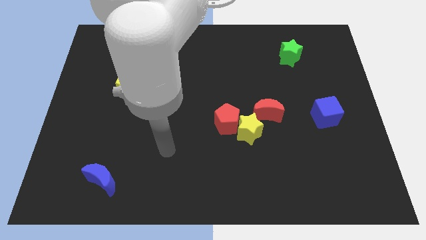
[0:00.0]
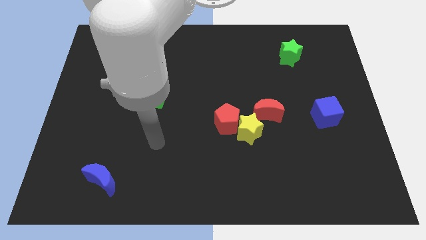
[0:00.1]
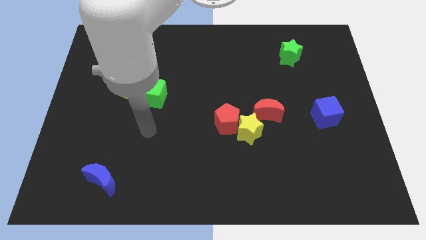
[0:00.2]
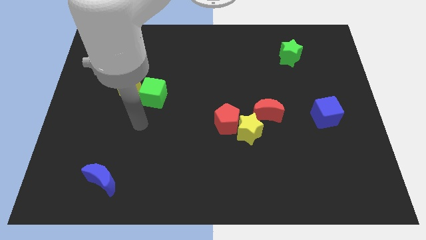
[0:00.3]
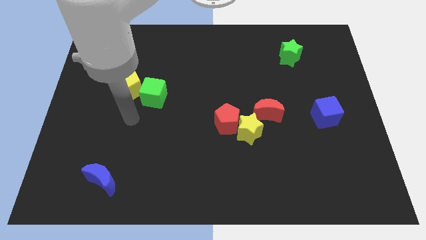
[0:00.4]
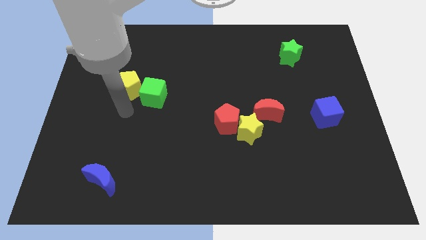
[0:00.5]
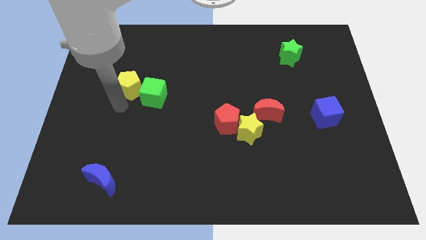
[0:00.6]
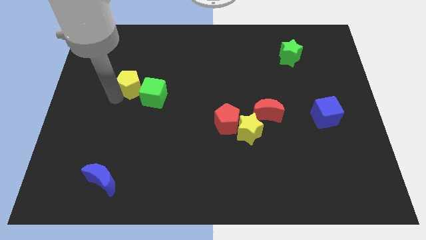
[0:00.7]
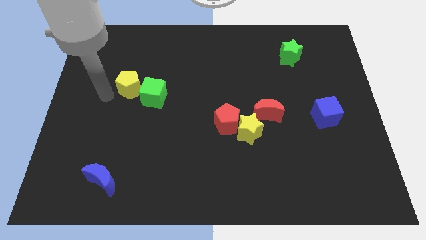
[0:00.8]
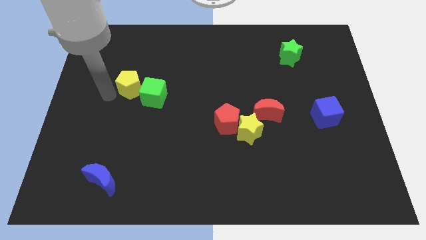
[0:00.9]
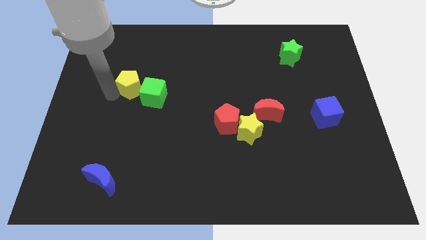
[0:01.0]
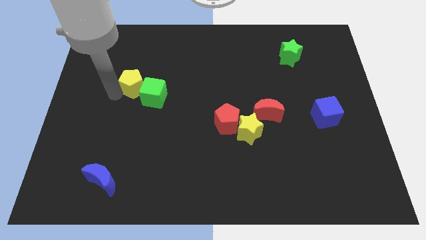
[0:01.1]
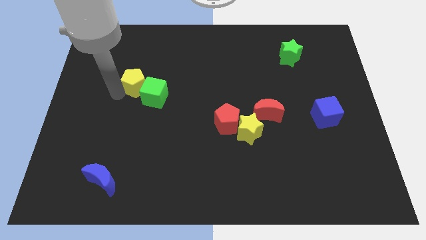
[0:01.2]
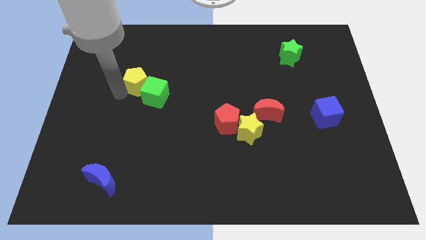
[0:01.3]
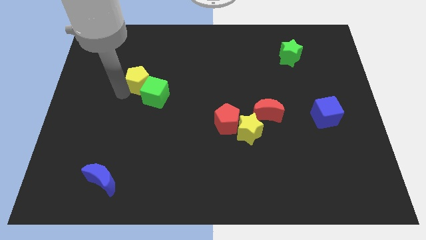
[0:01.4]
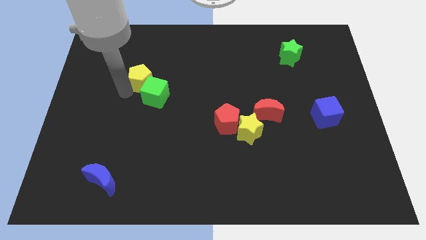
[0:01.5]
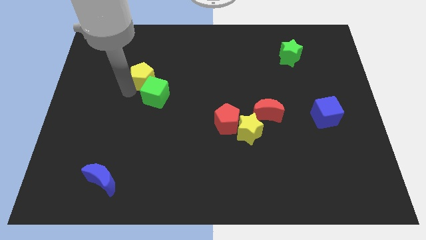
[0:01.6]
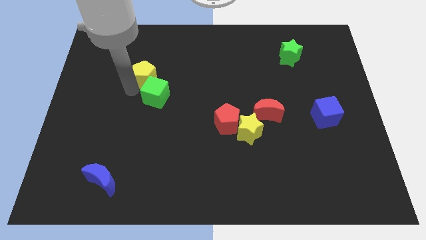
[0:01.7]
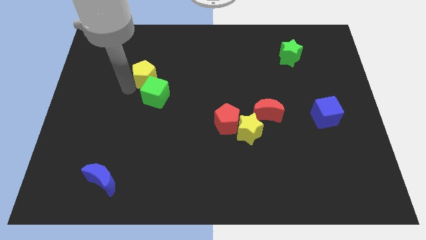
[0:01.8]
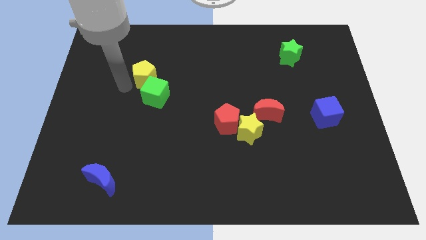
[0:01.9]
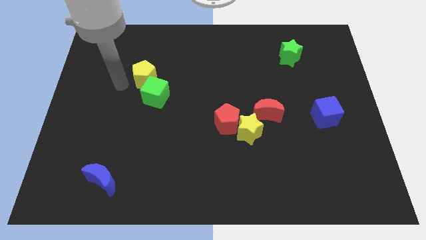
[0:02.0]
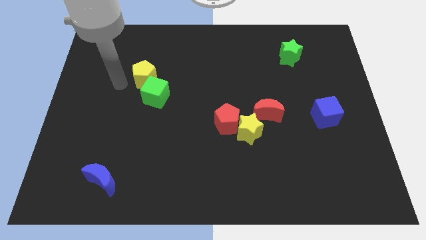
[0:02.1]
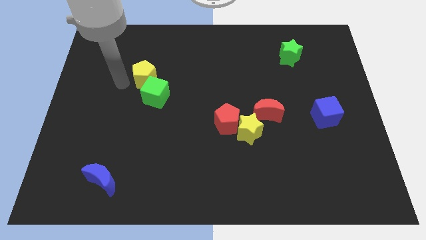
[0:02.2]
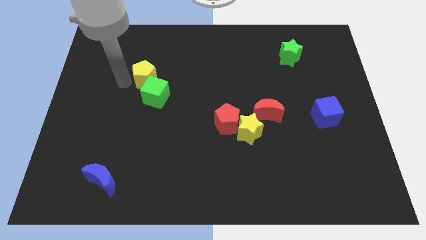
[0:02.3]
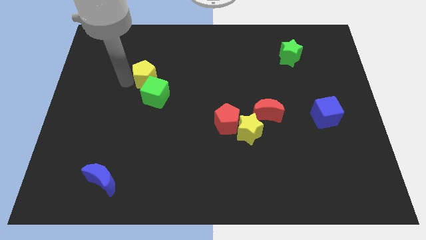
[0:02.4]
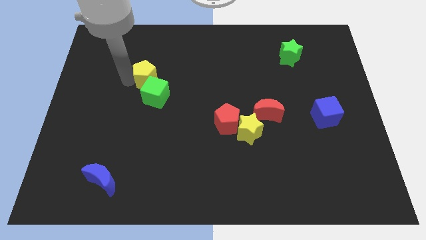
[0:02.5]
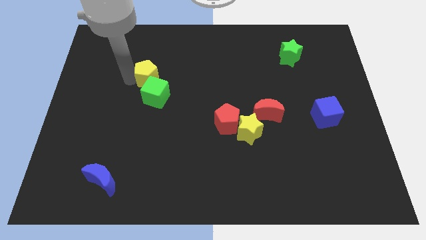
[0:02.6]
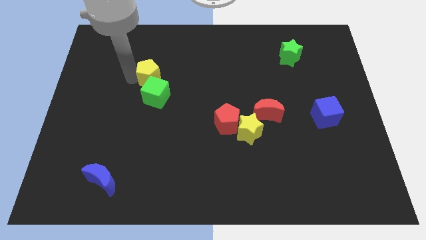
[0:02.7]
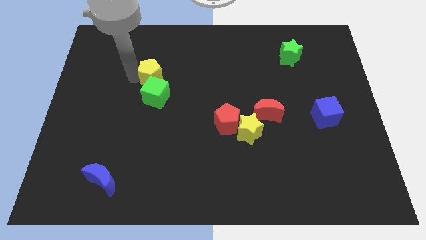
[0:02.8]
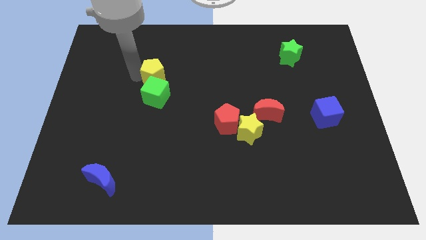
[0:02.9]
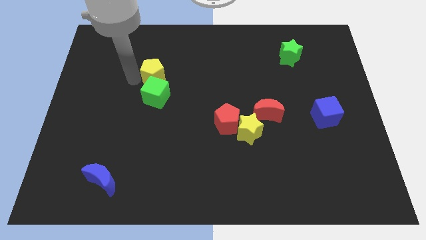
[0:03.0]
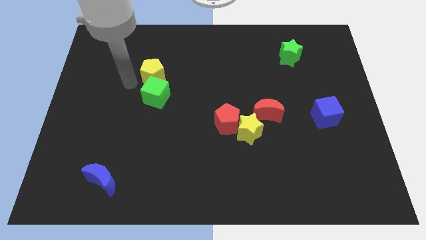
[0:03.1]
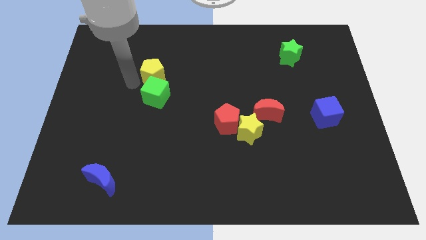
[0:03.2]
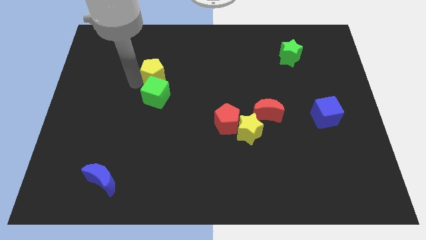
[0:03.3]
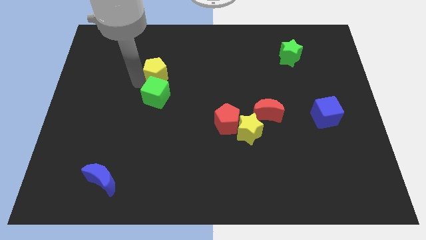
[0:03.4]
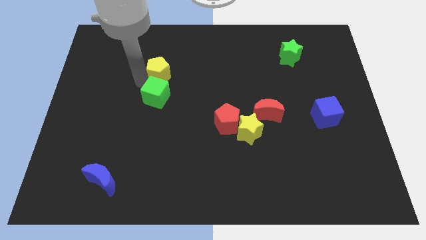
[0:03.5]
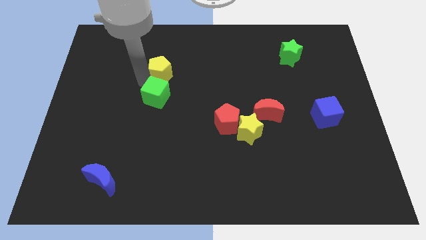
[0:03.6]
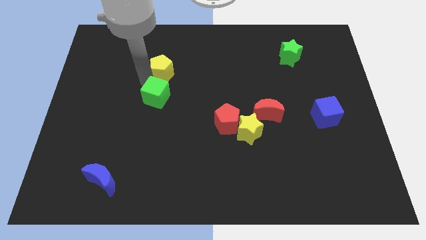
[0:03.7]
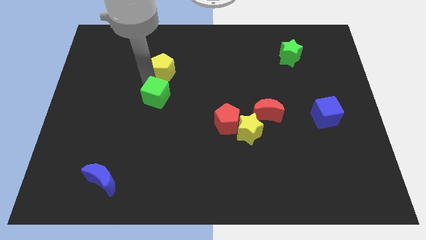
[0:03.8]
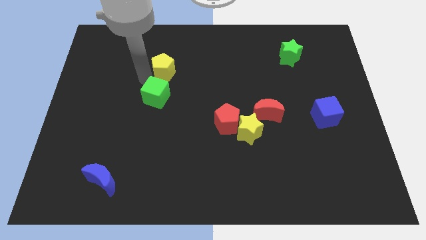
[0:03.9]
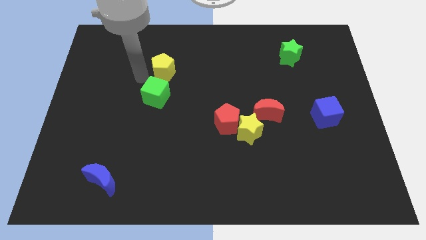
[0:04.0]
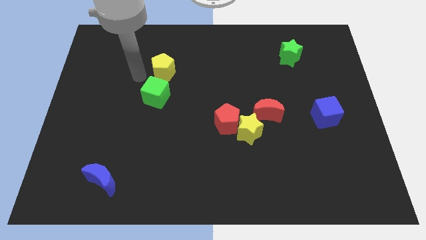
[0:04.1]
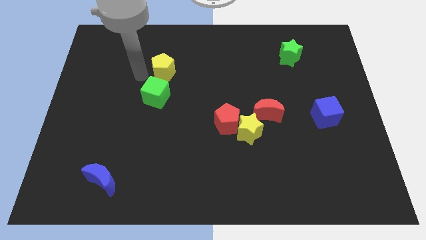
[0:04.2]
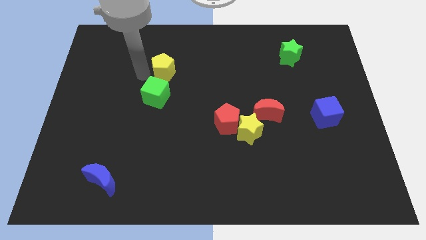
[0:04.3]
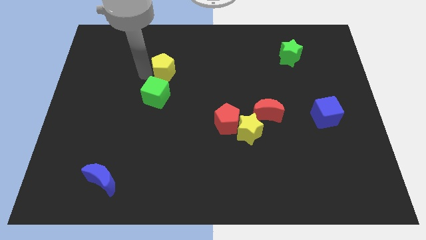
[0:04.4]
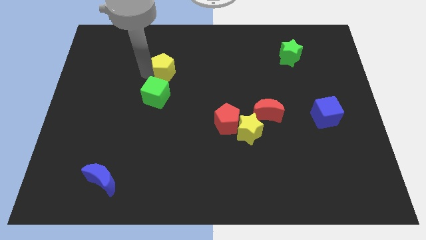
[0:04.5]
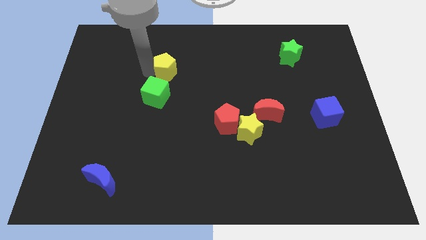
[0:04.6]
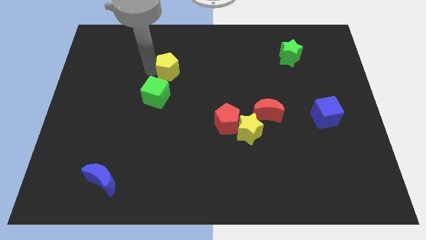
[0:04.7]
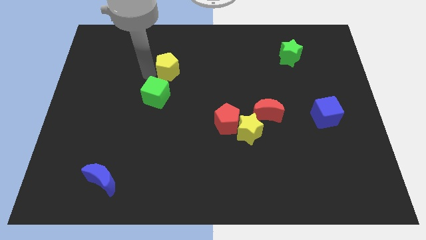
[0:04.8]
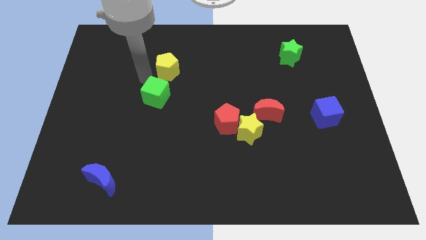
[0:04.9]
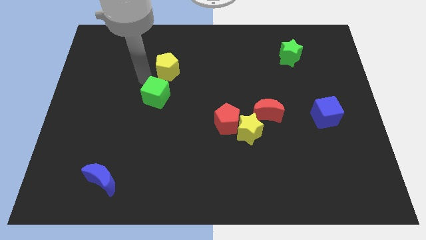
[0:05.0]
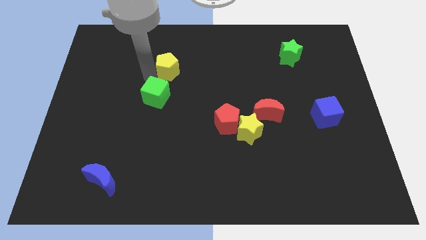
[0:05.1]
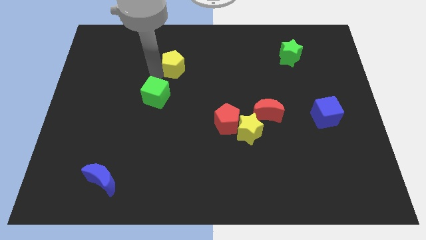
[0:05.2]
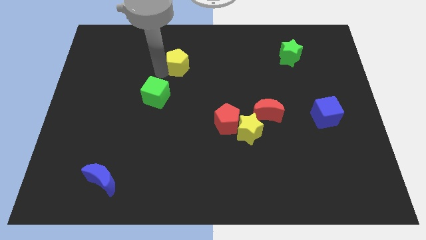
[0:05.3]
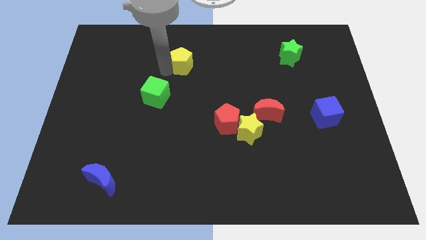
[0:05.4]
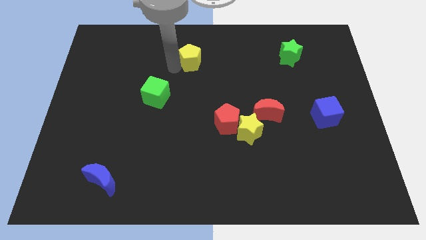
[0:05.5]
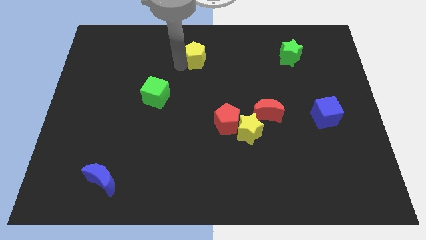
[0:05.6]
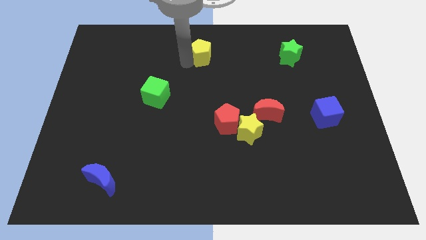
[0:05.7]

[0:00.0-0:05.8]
put the yellow pentagon to the top side
